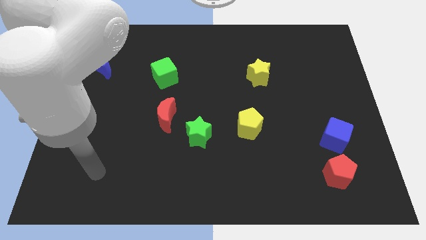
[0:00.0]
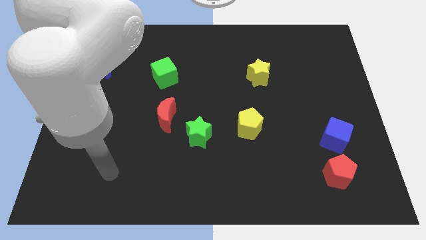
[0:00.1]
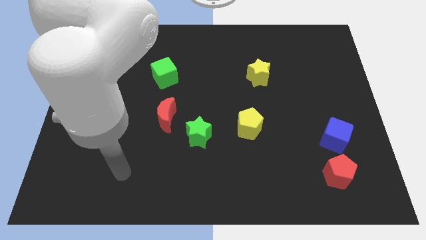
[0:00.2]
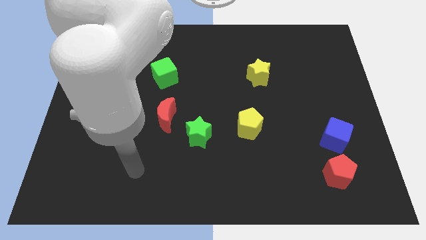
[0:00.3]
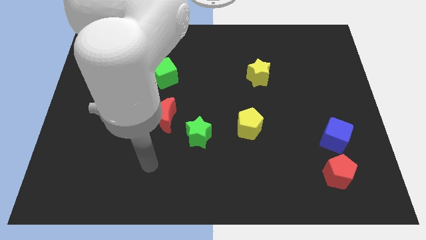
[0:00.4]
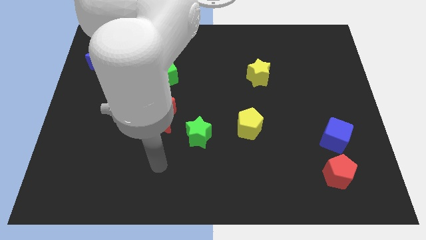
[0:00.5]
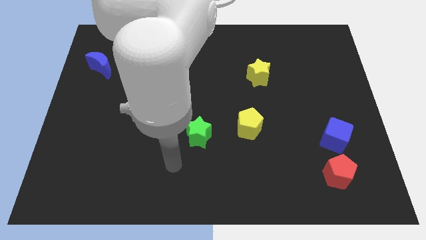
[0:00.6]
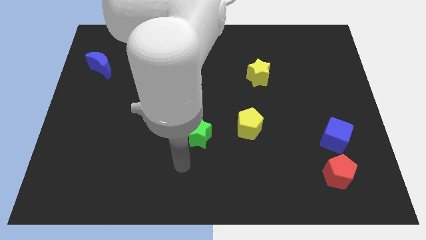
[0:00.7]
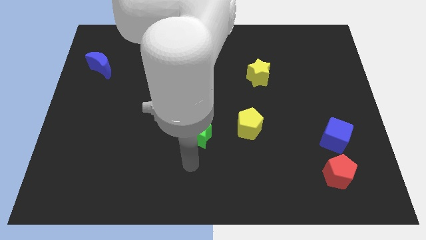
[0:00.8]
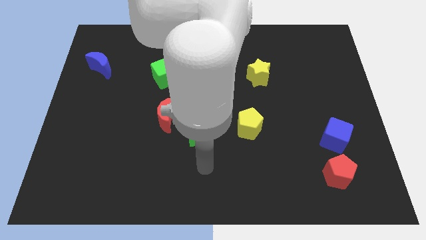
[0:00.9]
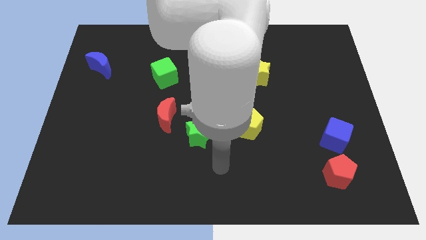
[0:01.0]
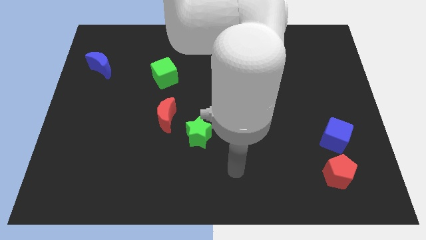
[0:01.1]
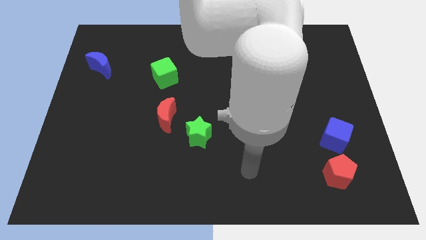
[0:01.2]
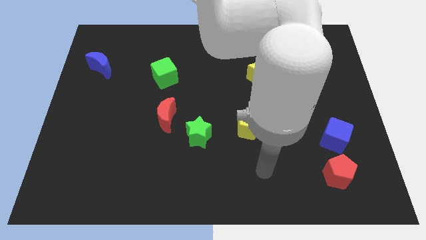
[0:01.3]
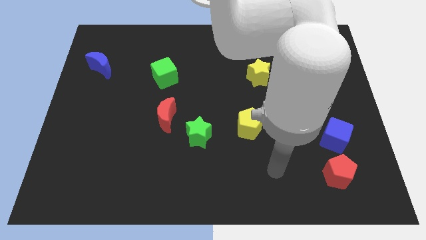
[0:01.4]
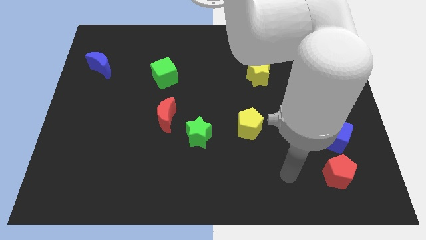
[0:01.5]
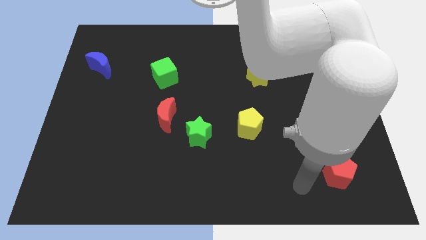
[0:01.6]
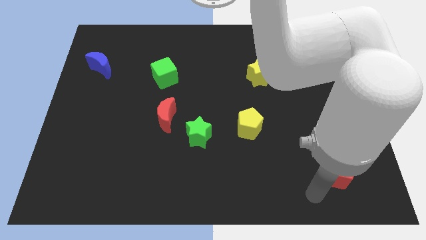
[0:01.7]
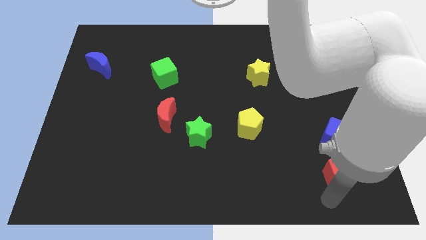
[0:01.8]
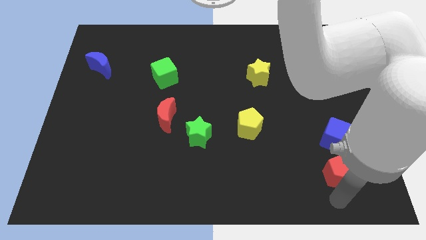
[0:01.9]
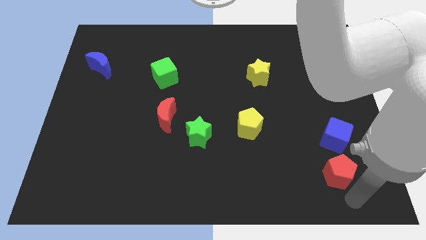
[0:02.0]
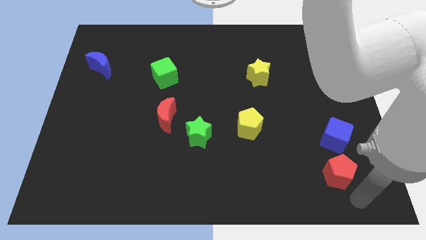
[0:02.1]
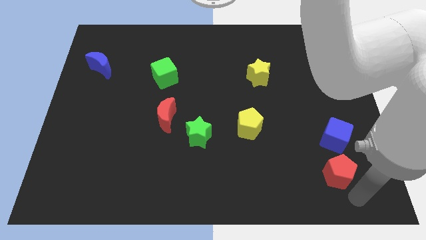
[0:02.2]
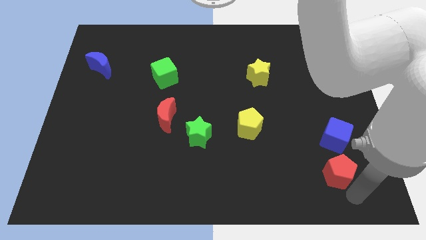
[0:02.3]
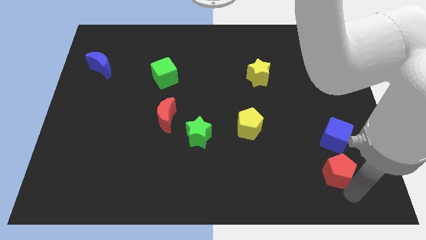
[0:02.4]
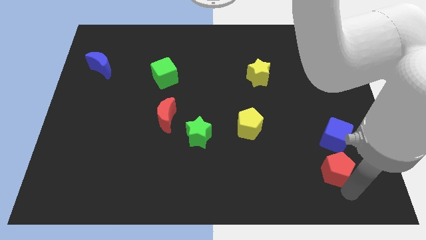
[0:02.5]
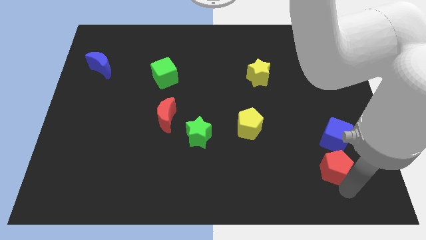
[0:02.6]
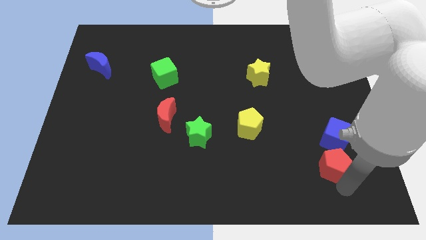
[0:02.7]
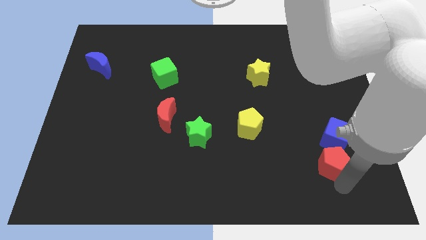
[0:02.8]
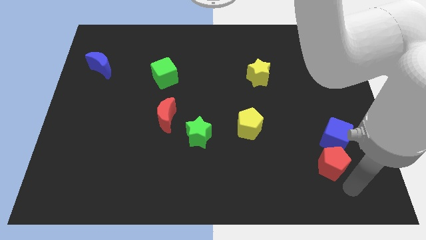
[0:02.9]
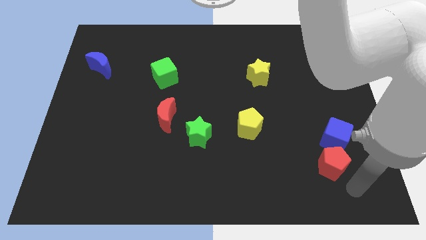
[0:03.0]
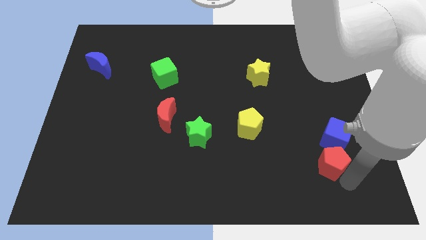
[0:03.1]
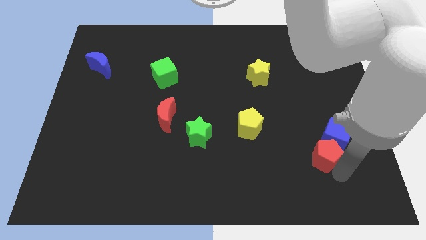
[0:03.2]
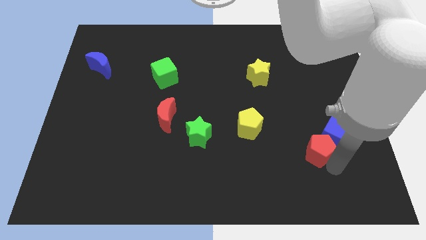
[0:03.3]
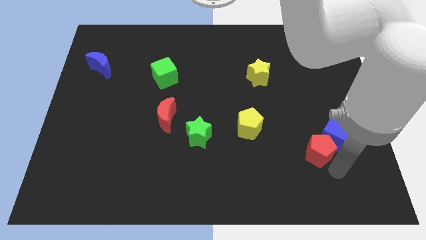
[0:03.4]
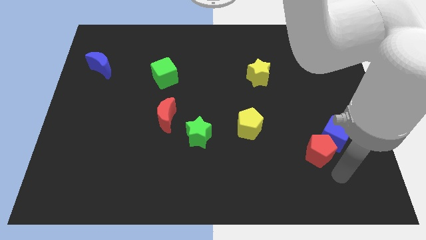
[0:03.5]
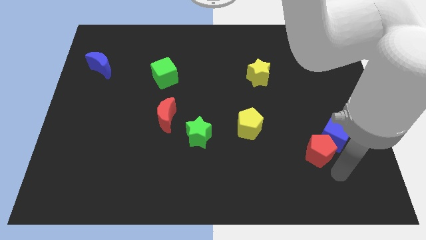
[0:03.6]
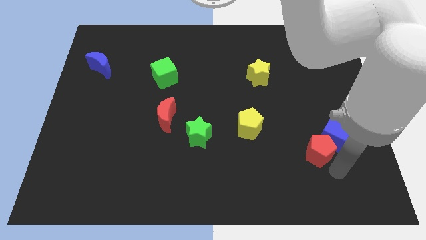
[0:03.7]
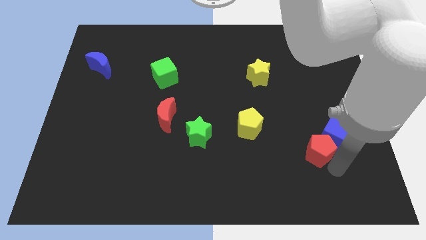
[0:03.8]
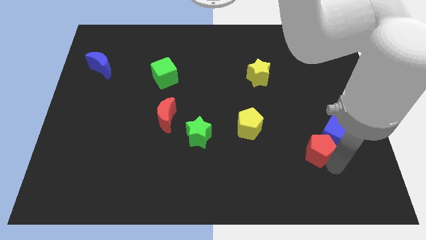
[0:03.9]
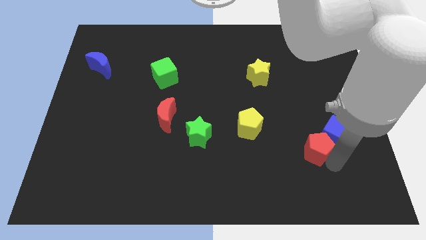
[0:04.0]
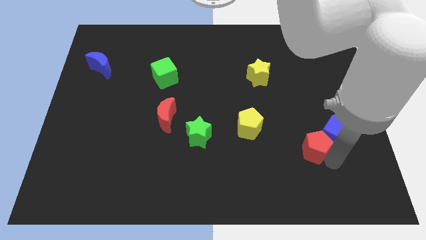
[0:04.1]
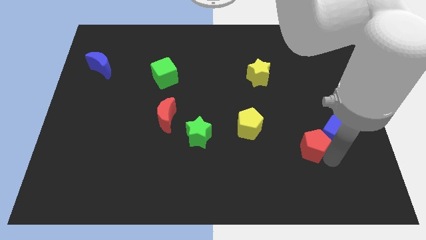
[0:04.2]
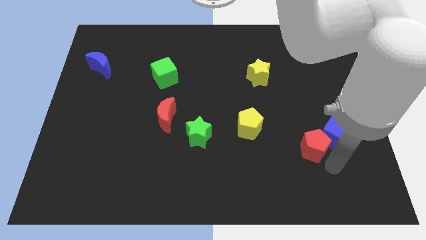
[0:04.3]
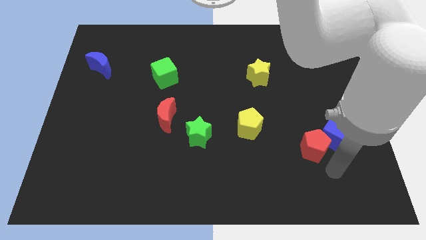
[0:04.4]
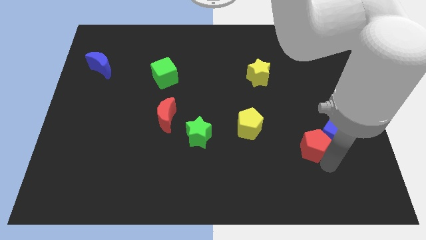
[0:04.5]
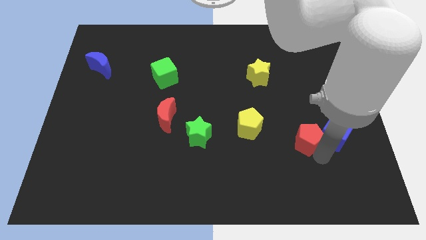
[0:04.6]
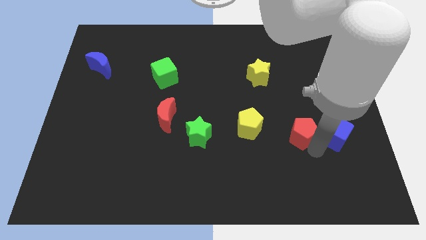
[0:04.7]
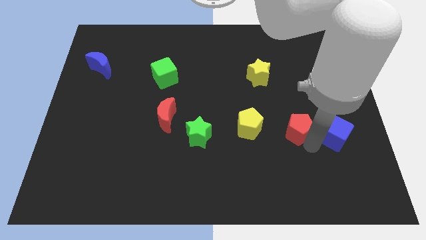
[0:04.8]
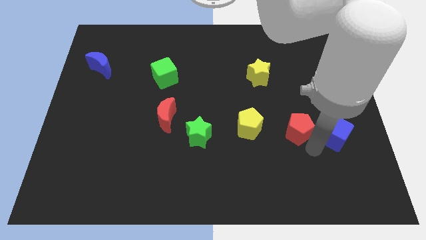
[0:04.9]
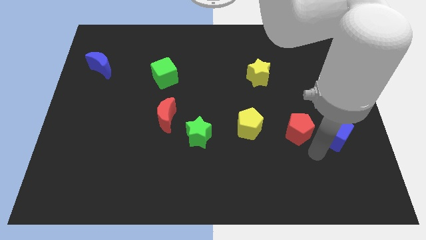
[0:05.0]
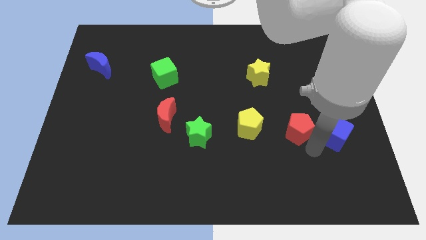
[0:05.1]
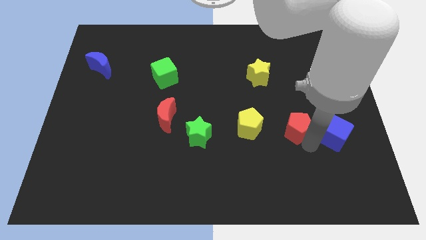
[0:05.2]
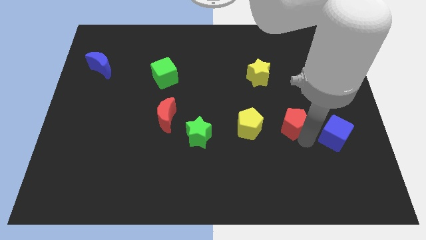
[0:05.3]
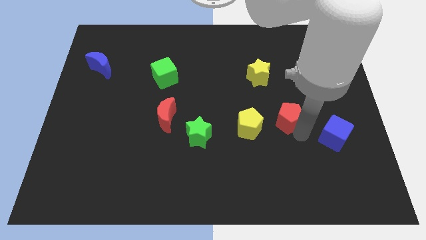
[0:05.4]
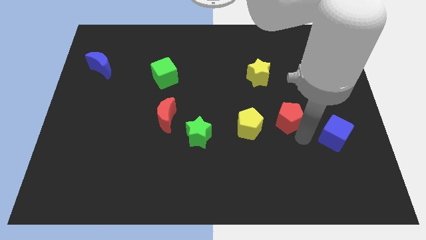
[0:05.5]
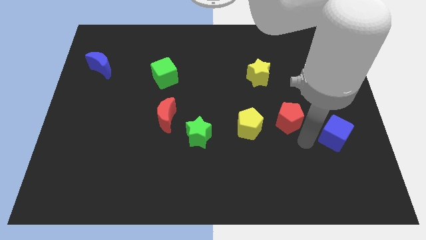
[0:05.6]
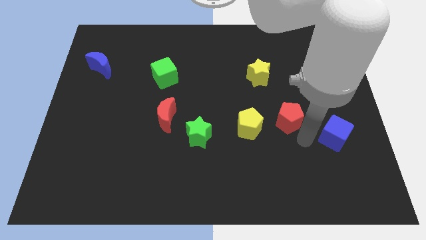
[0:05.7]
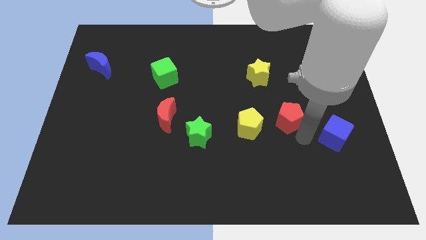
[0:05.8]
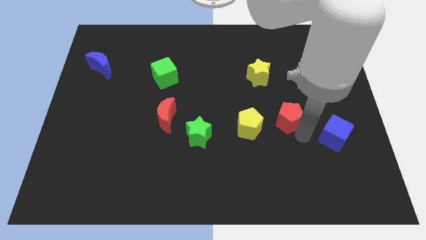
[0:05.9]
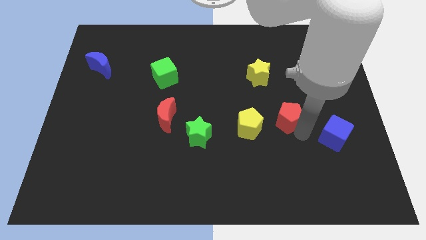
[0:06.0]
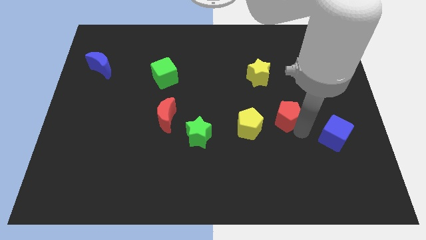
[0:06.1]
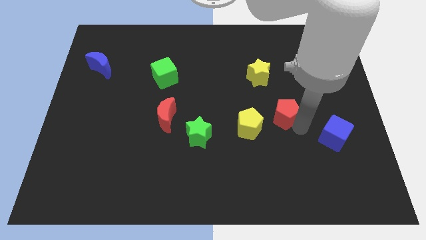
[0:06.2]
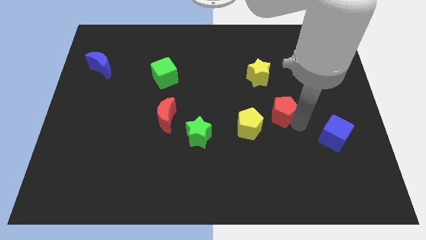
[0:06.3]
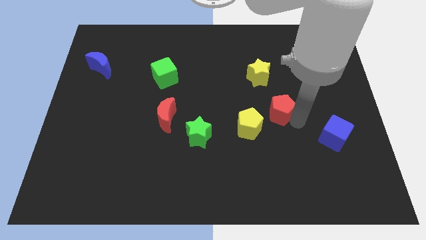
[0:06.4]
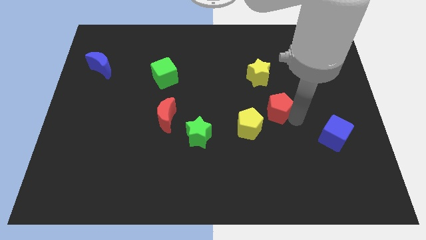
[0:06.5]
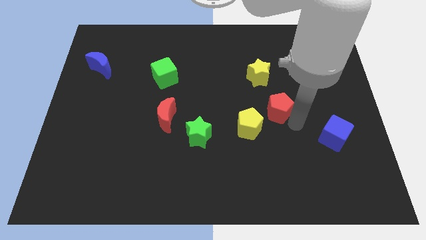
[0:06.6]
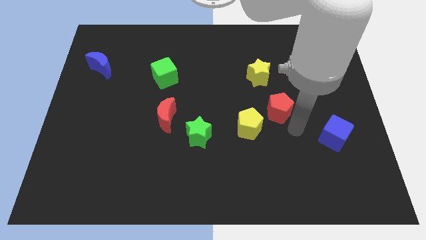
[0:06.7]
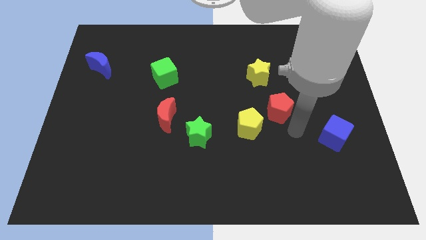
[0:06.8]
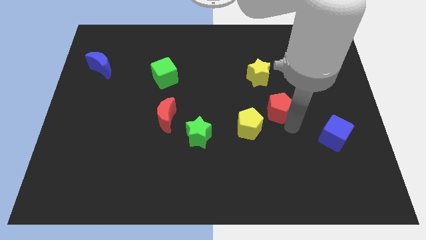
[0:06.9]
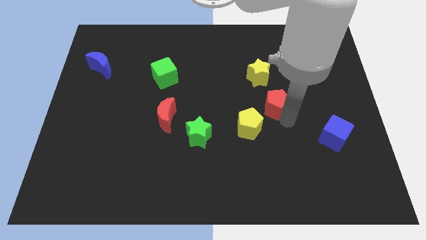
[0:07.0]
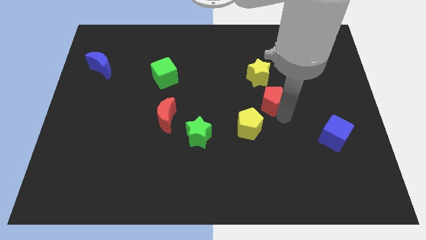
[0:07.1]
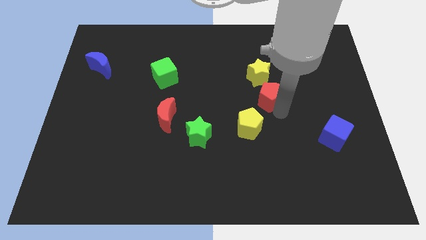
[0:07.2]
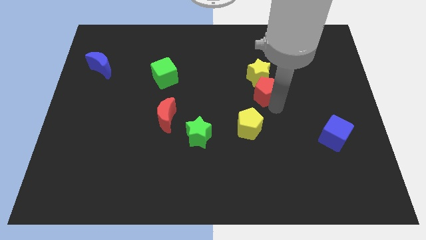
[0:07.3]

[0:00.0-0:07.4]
slide the red pentagon towards the yellow star
